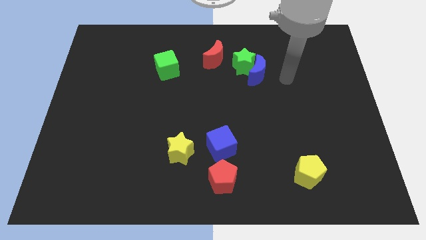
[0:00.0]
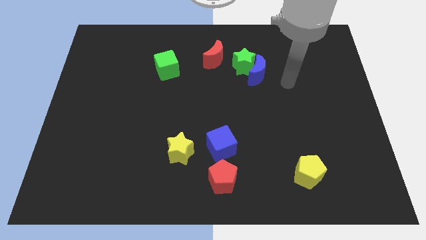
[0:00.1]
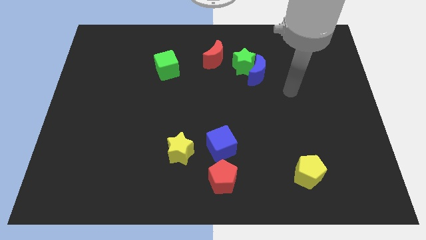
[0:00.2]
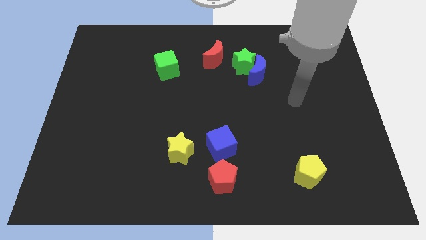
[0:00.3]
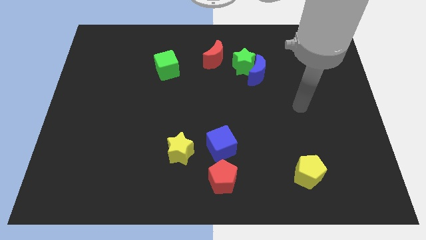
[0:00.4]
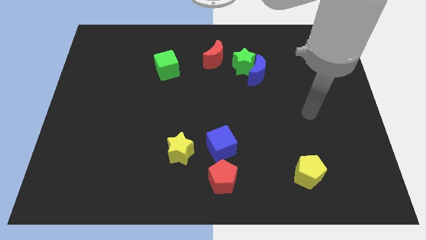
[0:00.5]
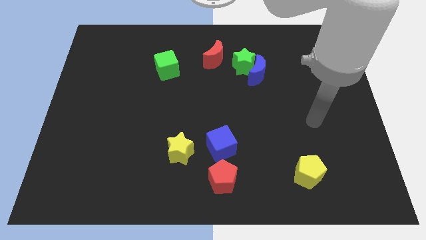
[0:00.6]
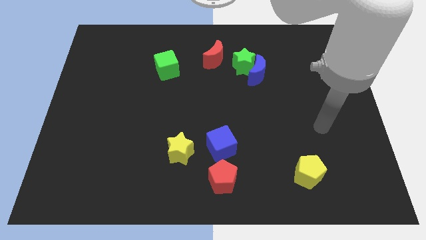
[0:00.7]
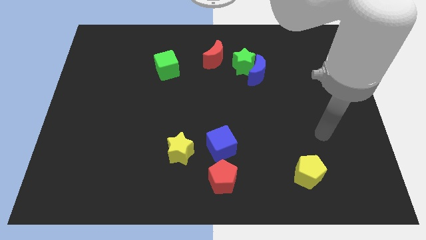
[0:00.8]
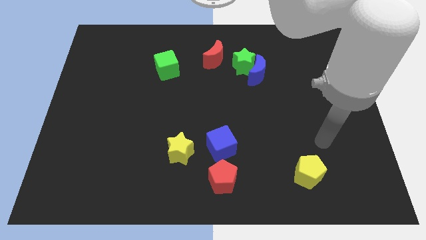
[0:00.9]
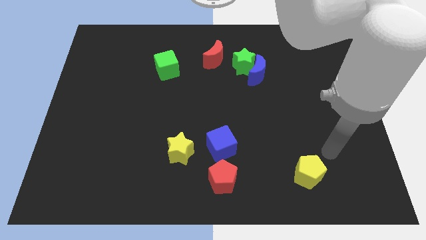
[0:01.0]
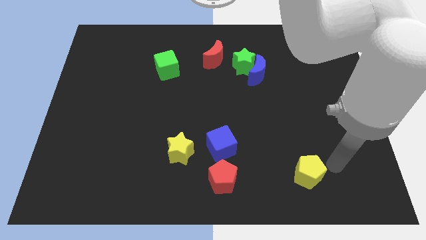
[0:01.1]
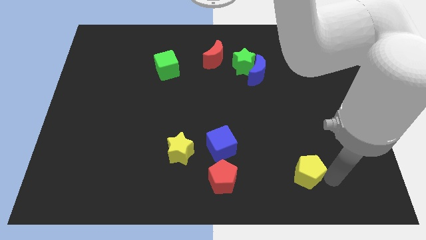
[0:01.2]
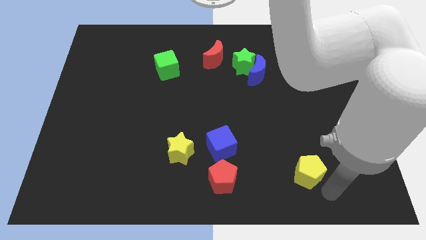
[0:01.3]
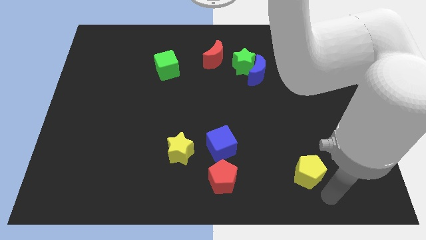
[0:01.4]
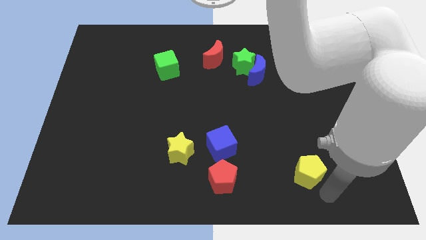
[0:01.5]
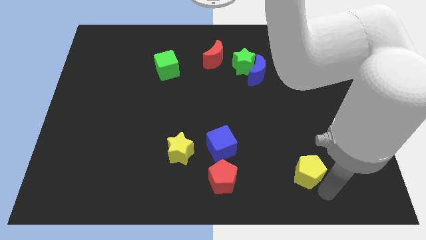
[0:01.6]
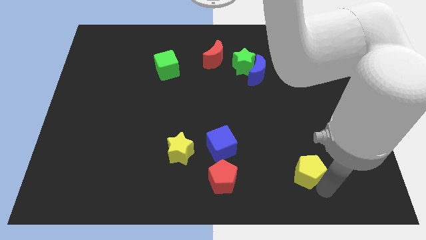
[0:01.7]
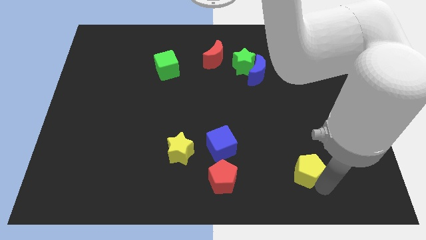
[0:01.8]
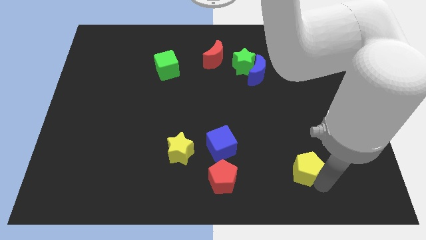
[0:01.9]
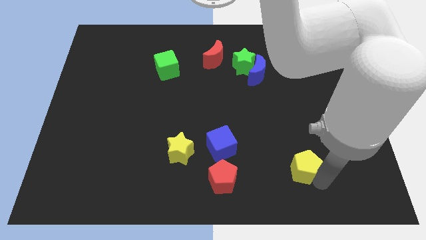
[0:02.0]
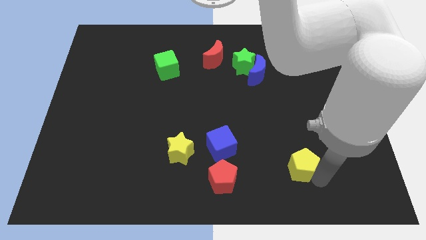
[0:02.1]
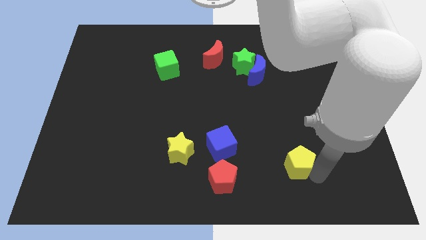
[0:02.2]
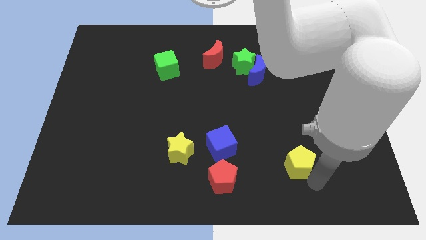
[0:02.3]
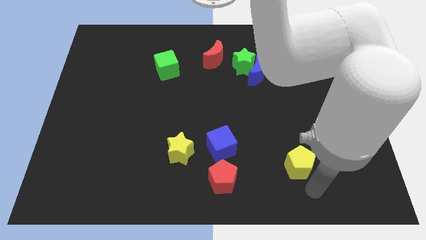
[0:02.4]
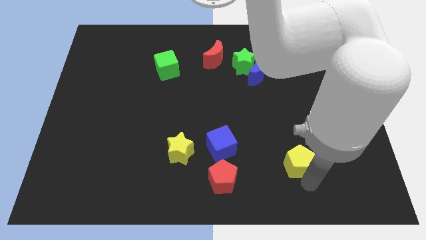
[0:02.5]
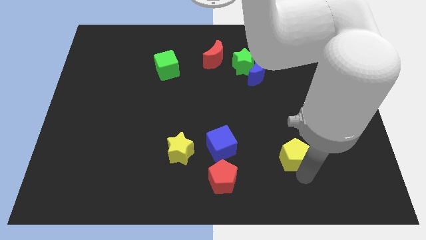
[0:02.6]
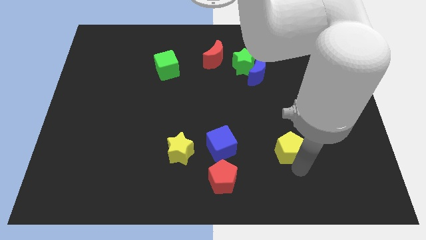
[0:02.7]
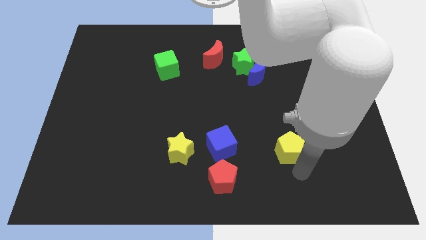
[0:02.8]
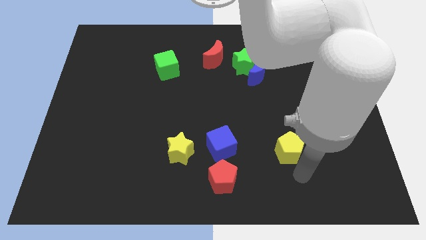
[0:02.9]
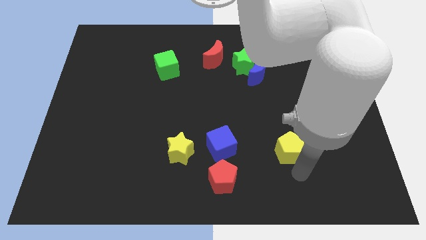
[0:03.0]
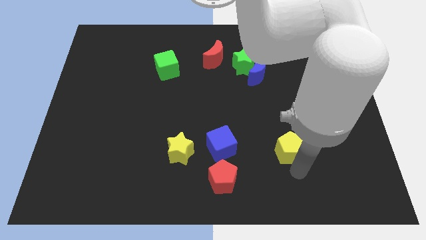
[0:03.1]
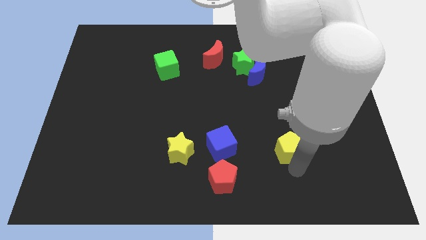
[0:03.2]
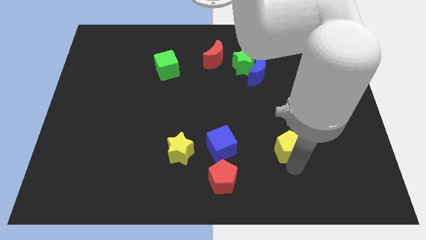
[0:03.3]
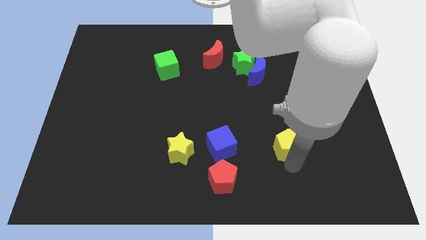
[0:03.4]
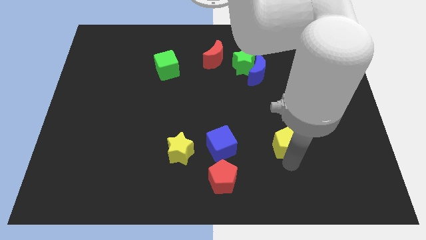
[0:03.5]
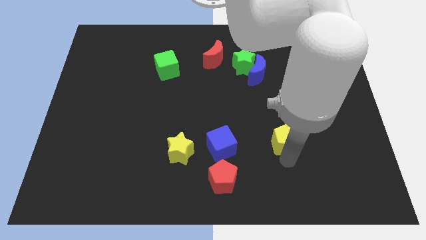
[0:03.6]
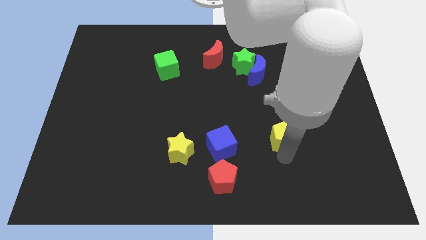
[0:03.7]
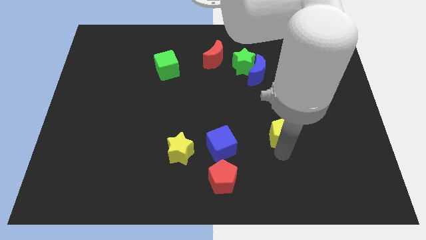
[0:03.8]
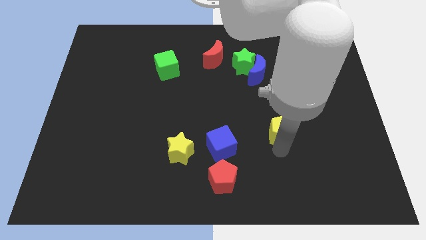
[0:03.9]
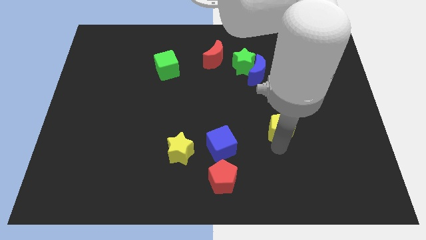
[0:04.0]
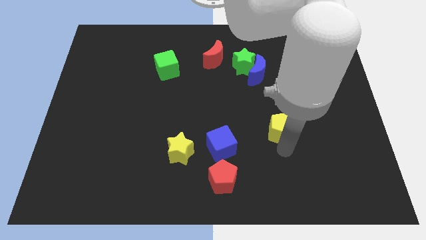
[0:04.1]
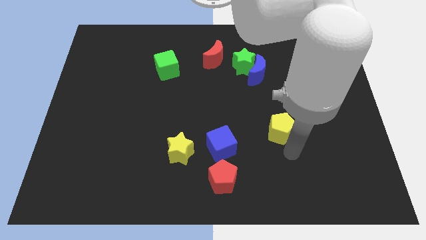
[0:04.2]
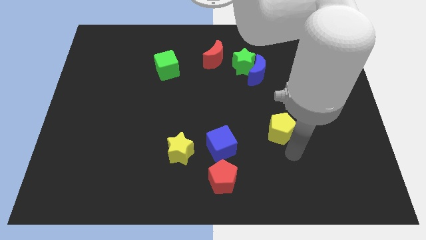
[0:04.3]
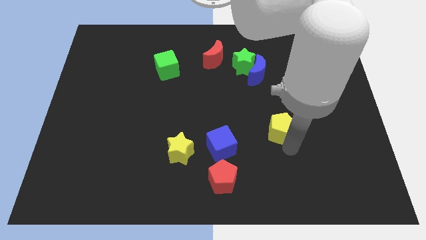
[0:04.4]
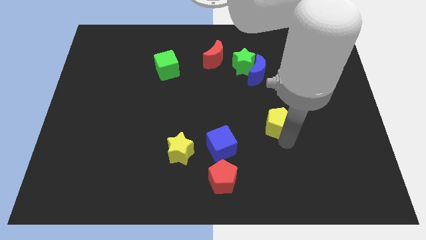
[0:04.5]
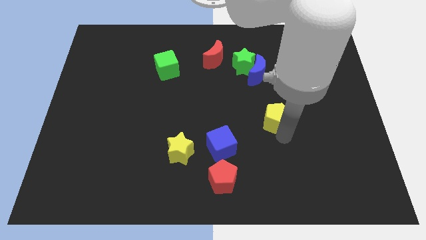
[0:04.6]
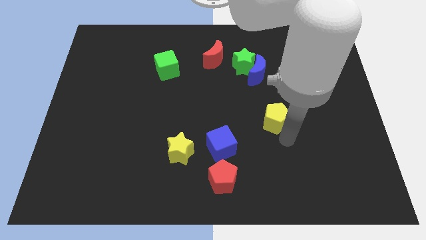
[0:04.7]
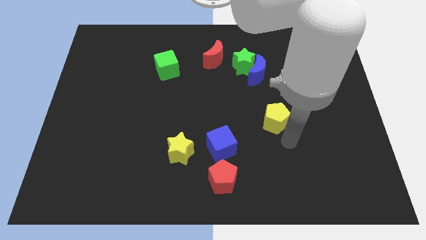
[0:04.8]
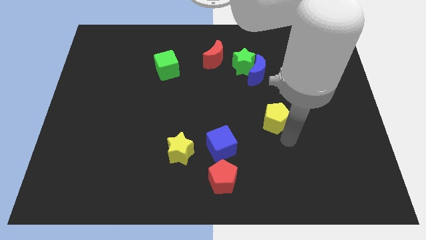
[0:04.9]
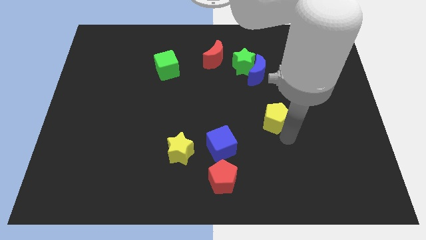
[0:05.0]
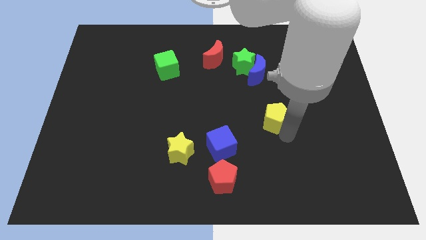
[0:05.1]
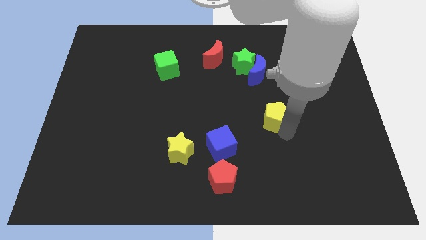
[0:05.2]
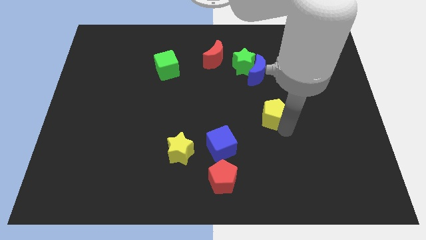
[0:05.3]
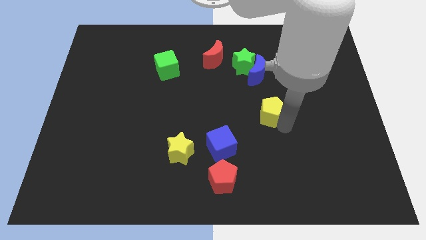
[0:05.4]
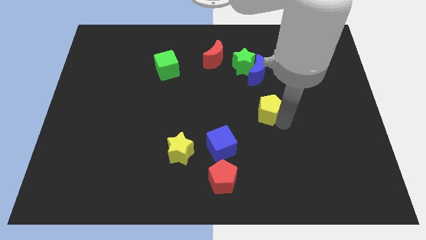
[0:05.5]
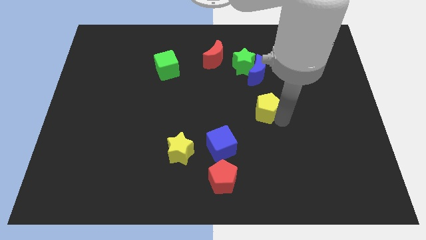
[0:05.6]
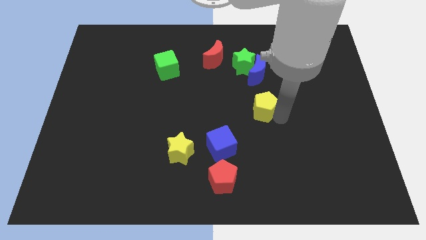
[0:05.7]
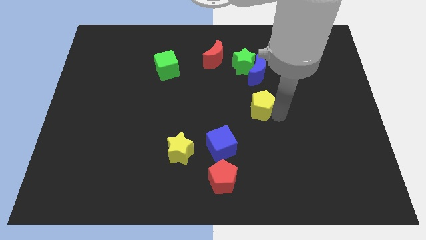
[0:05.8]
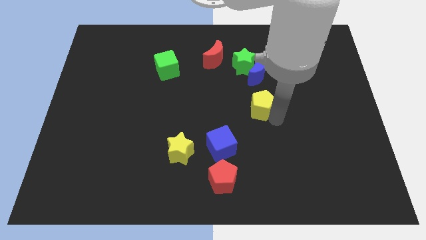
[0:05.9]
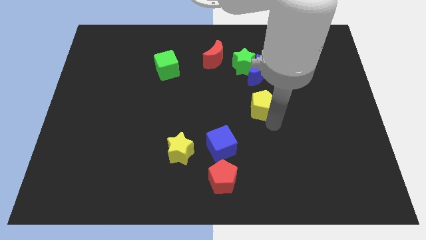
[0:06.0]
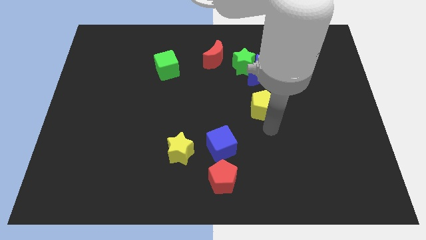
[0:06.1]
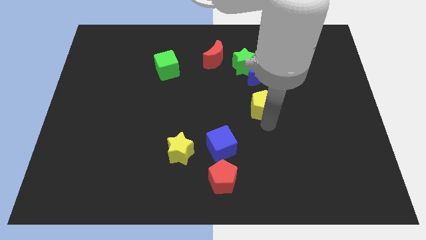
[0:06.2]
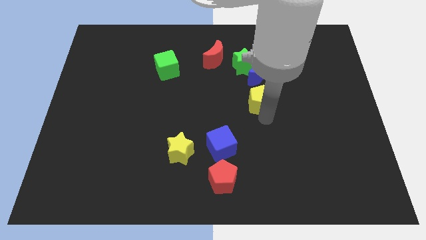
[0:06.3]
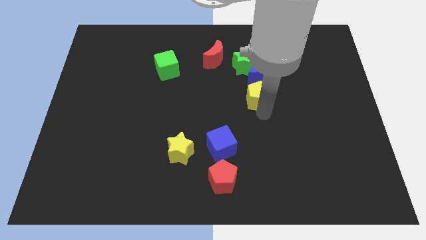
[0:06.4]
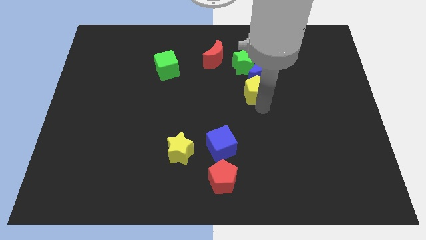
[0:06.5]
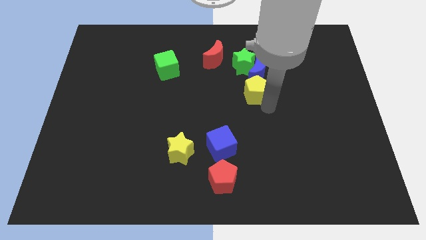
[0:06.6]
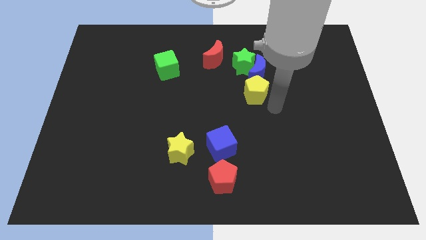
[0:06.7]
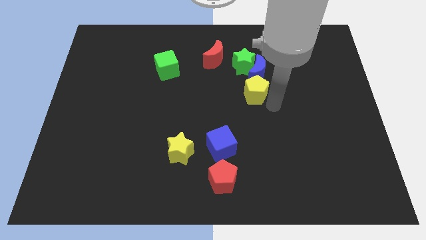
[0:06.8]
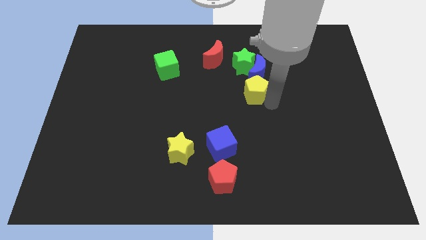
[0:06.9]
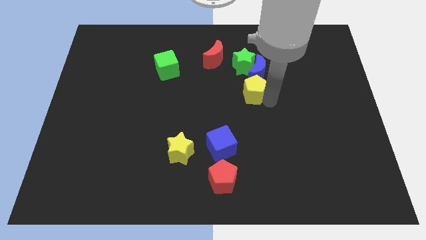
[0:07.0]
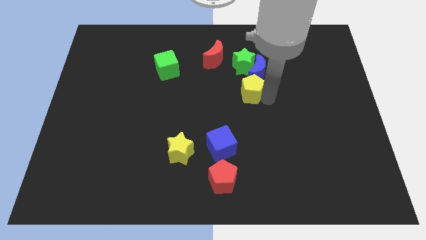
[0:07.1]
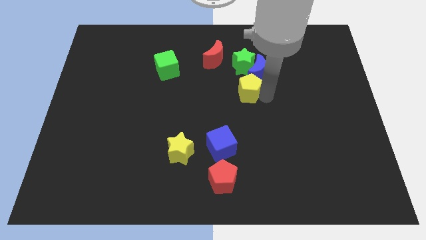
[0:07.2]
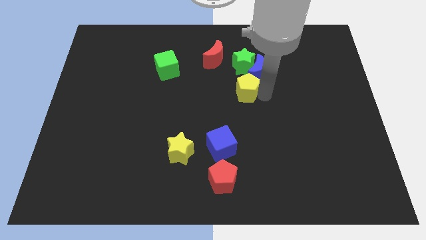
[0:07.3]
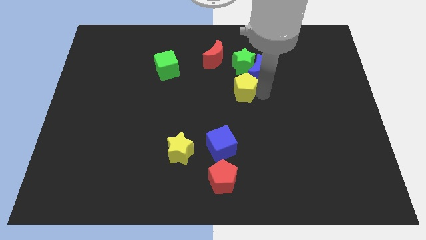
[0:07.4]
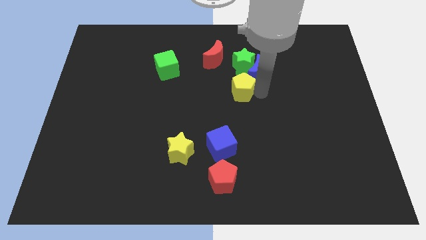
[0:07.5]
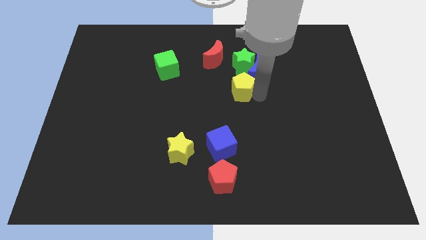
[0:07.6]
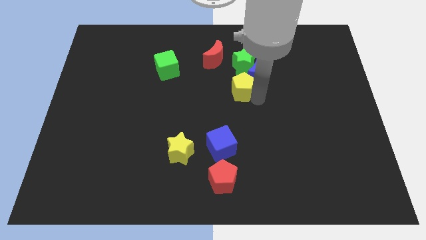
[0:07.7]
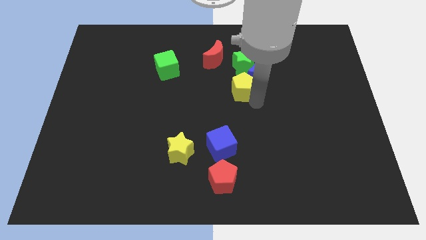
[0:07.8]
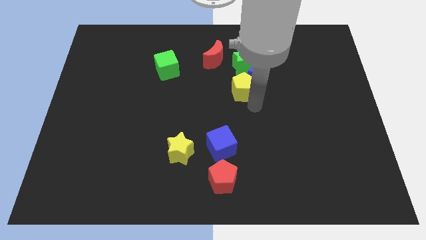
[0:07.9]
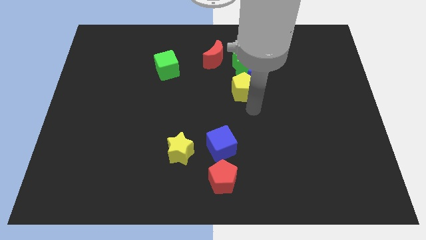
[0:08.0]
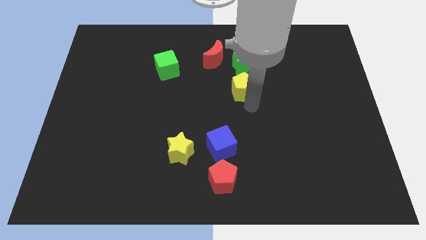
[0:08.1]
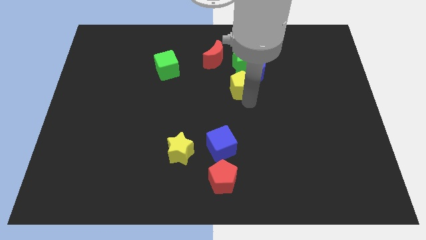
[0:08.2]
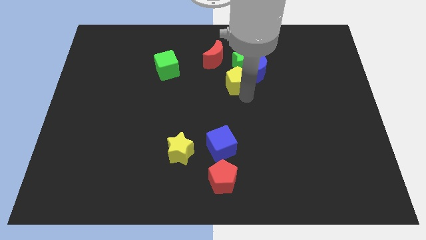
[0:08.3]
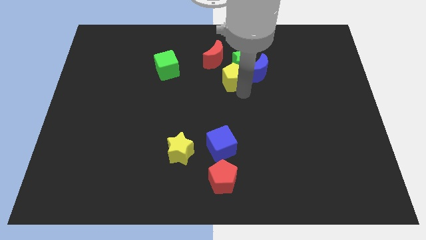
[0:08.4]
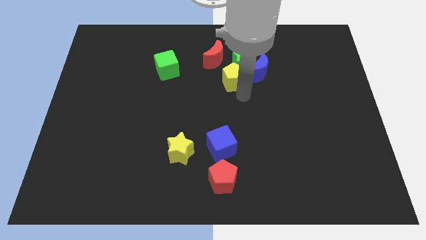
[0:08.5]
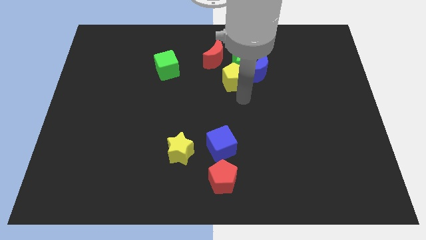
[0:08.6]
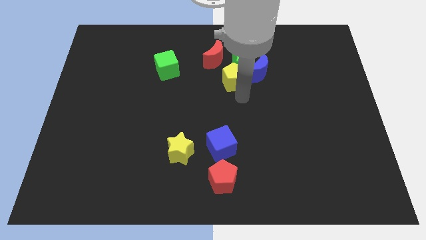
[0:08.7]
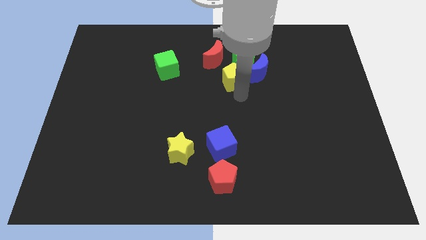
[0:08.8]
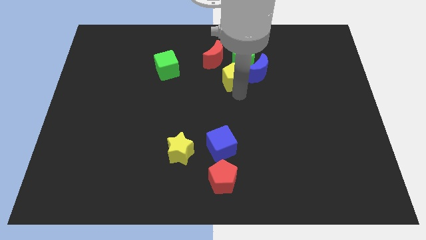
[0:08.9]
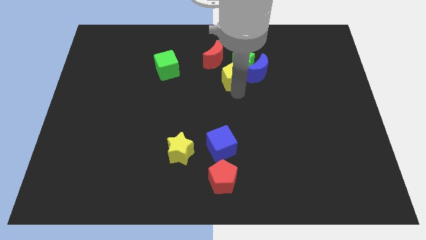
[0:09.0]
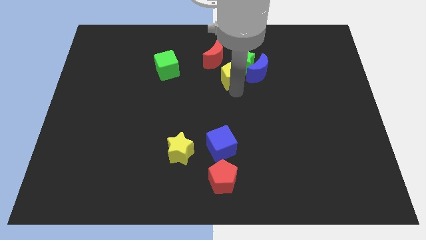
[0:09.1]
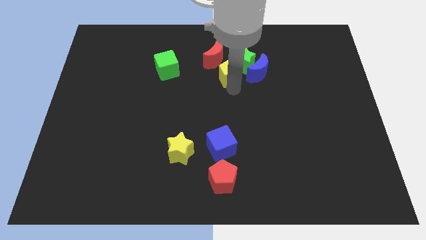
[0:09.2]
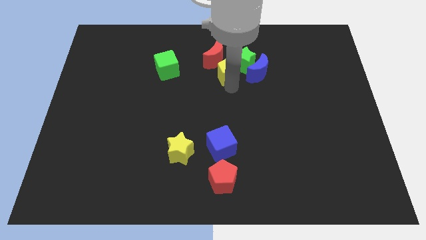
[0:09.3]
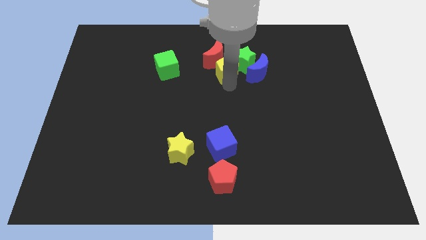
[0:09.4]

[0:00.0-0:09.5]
slide the yellow pentagon towards the red moon
